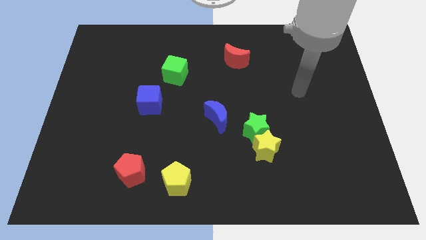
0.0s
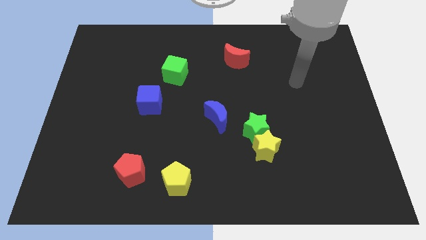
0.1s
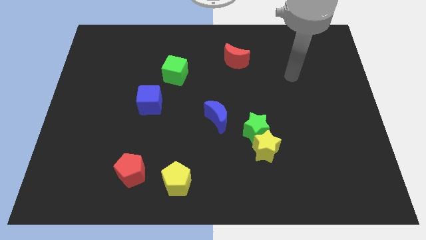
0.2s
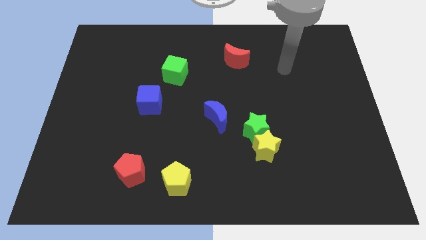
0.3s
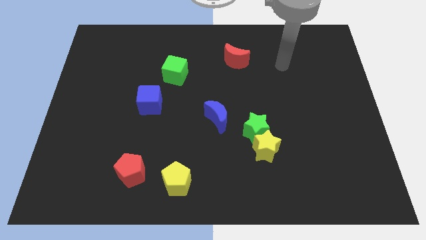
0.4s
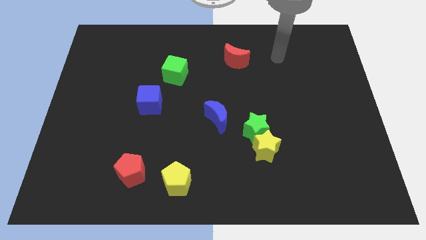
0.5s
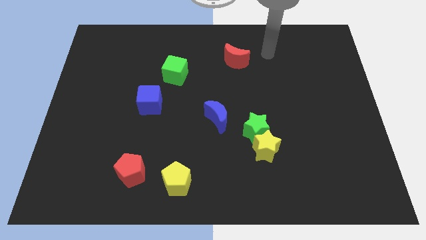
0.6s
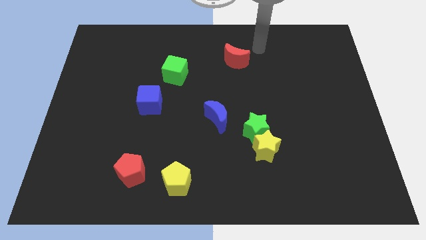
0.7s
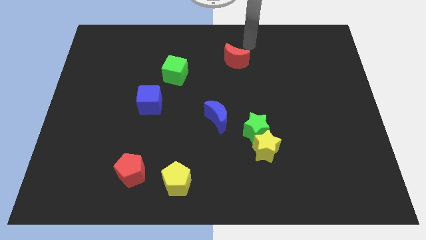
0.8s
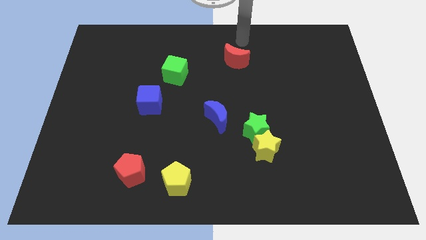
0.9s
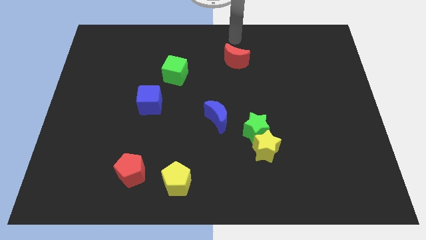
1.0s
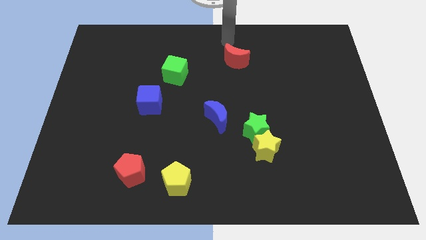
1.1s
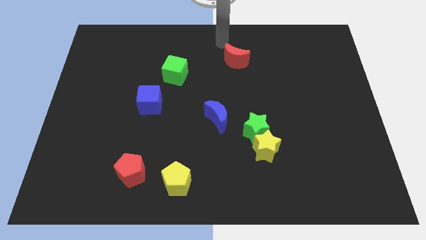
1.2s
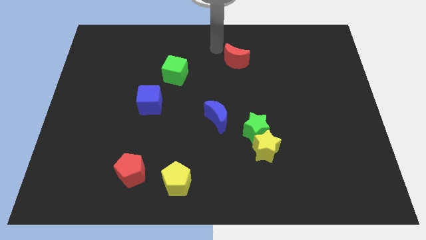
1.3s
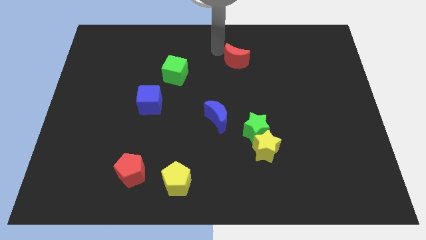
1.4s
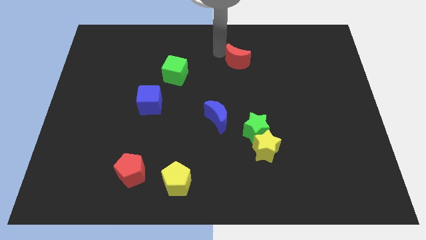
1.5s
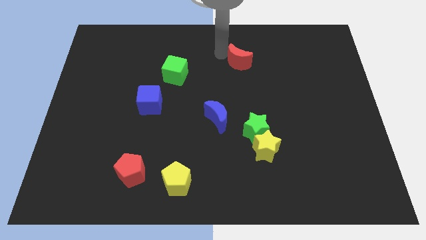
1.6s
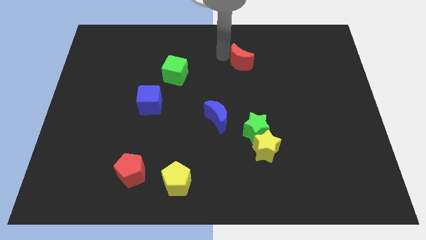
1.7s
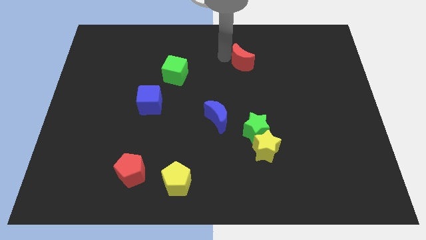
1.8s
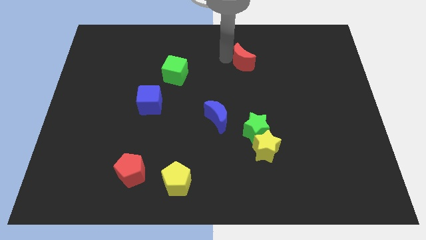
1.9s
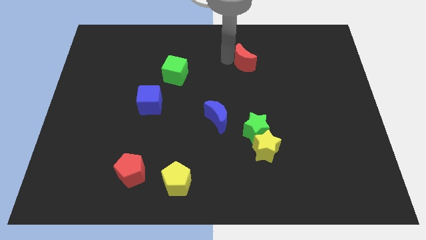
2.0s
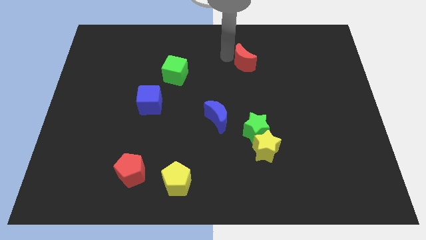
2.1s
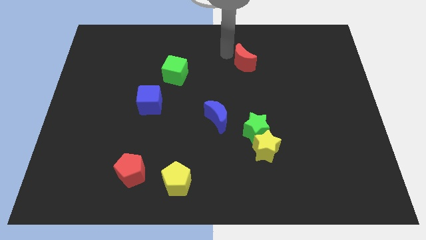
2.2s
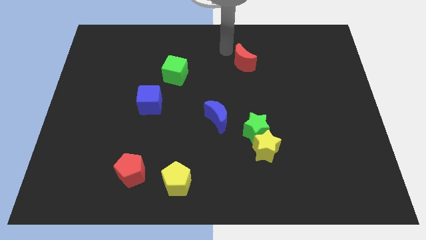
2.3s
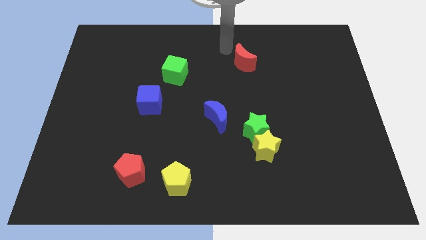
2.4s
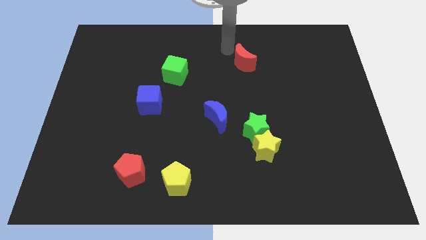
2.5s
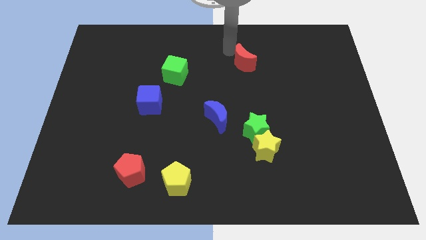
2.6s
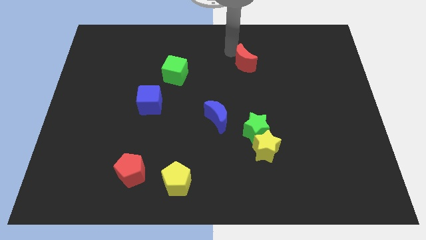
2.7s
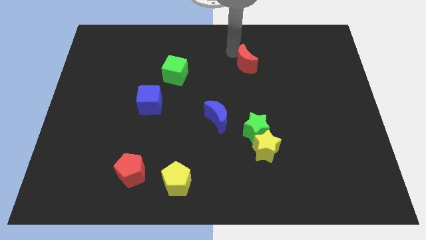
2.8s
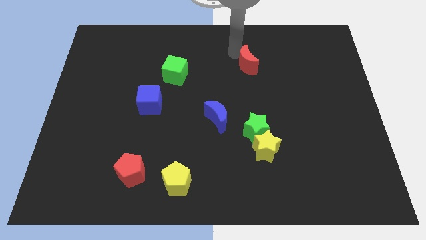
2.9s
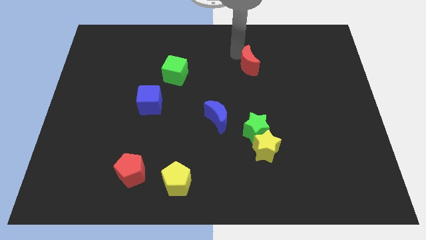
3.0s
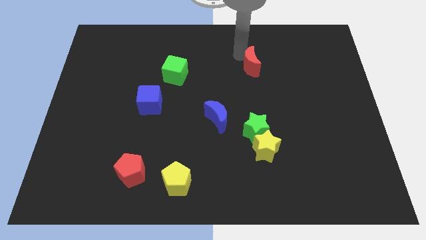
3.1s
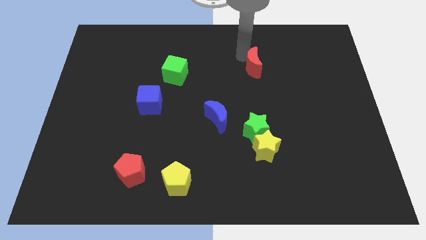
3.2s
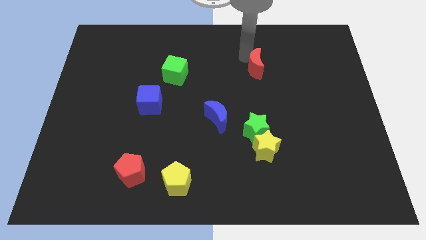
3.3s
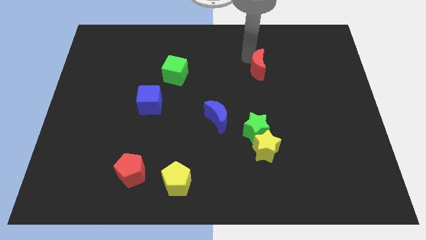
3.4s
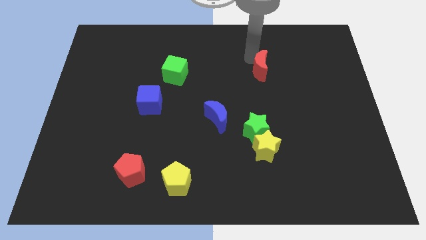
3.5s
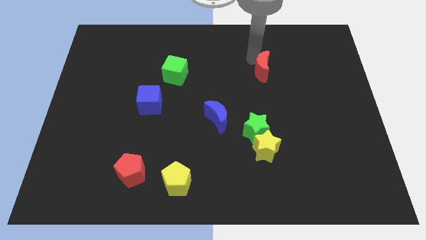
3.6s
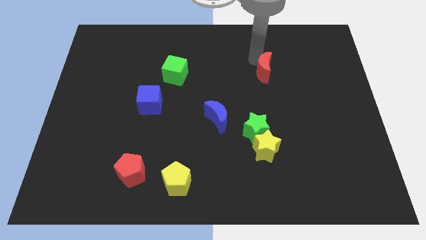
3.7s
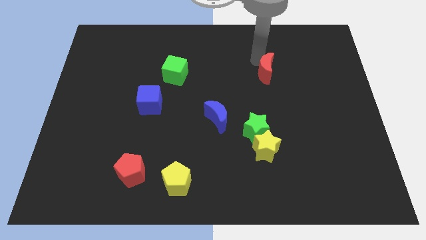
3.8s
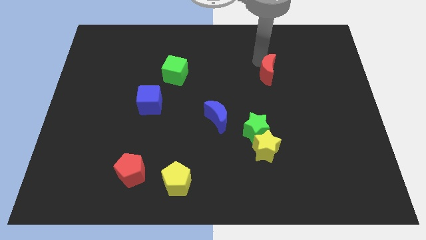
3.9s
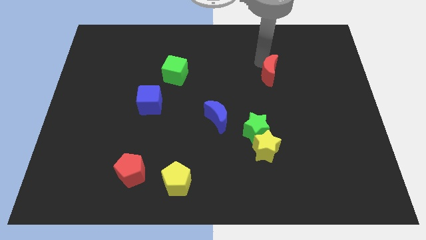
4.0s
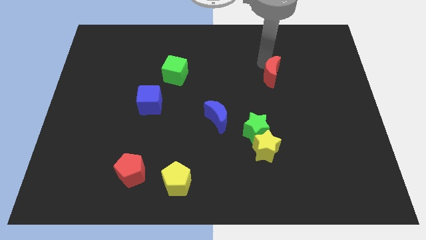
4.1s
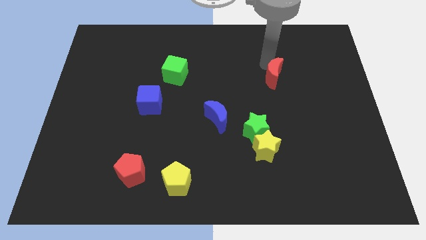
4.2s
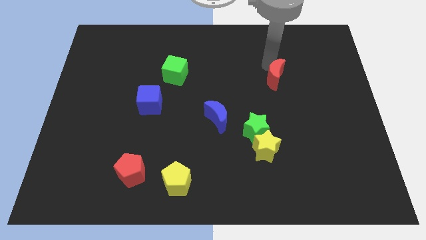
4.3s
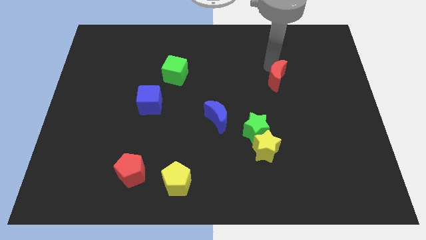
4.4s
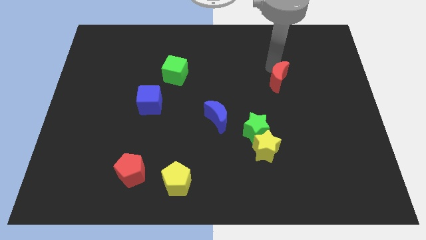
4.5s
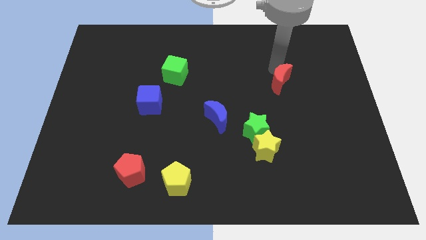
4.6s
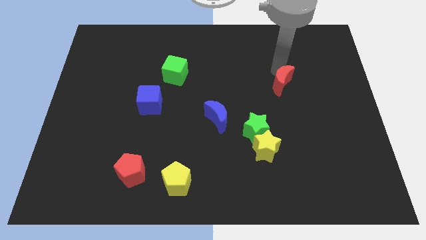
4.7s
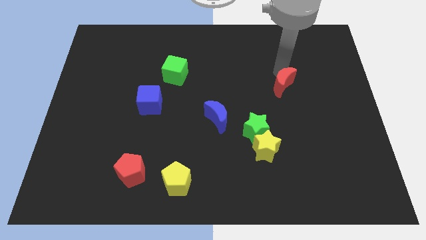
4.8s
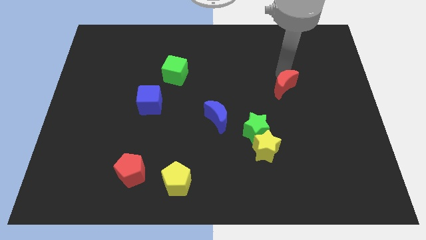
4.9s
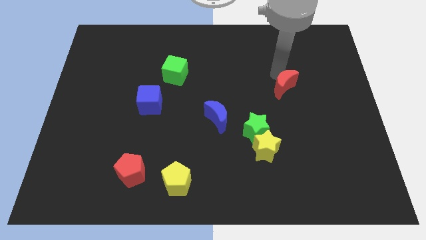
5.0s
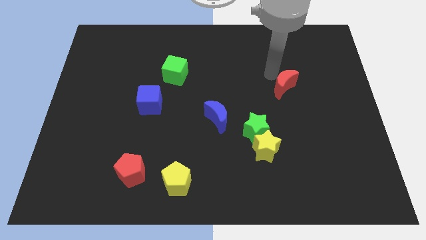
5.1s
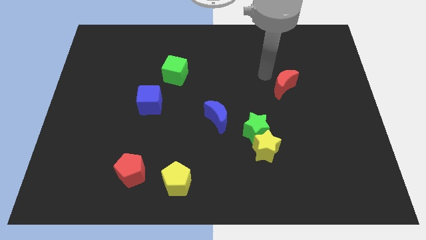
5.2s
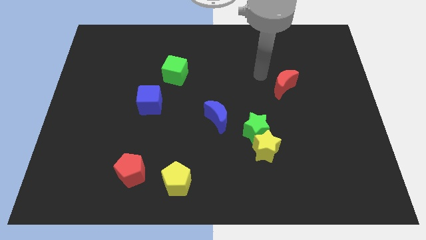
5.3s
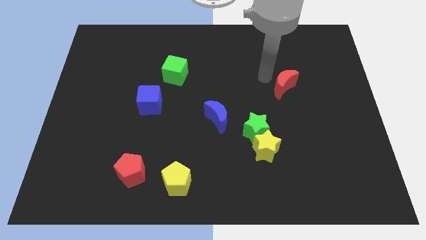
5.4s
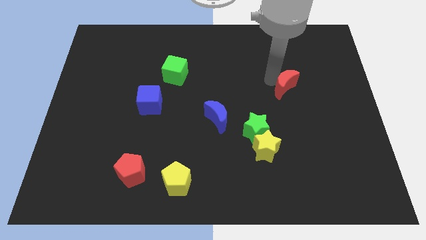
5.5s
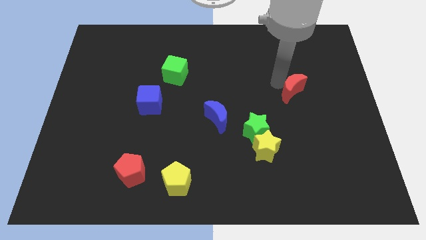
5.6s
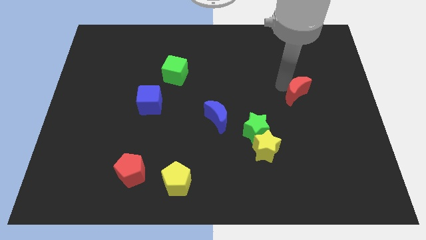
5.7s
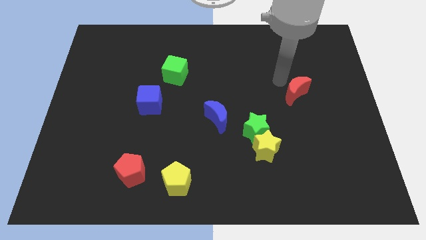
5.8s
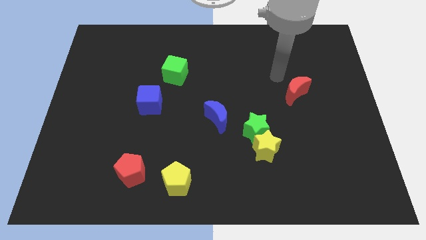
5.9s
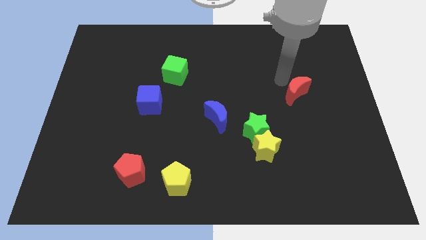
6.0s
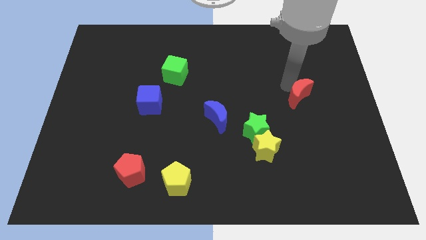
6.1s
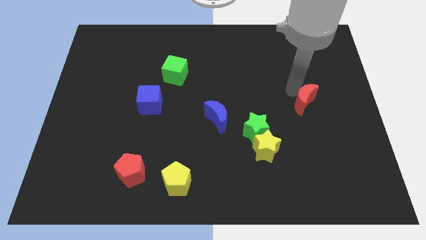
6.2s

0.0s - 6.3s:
push the red moon diagonally downwards and right

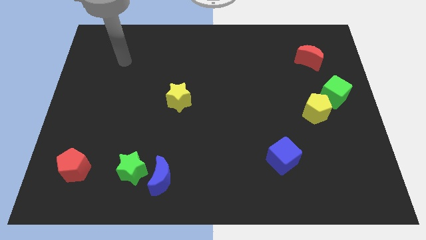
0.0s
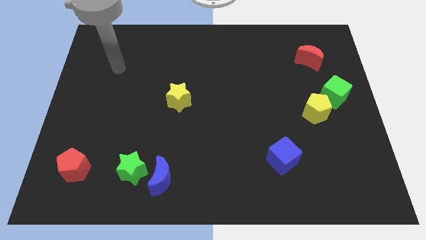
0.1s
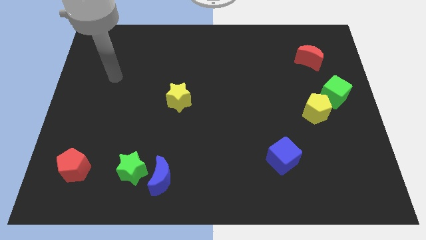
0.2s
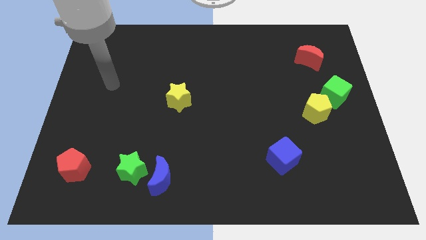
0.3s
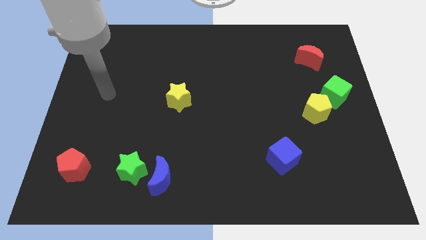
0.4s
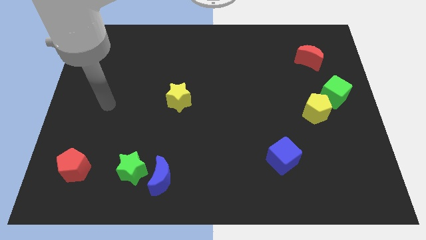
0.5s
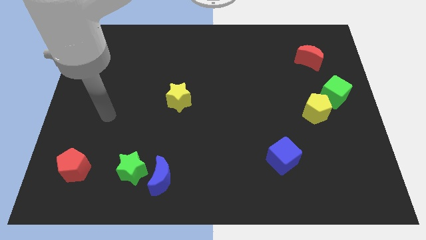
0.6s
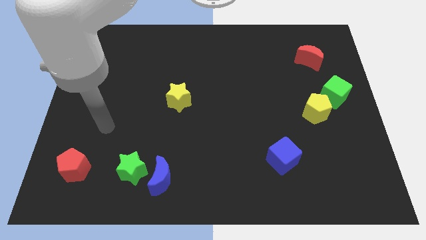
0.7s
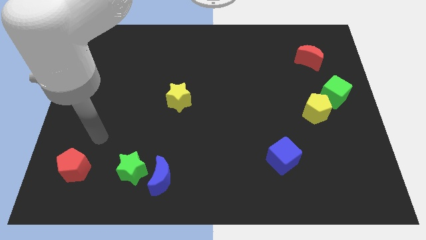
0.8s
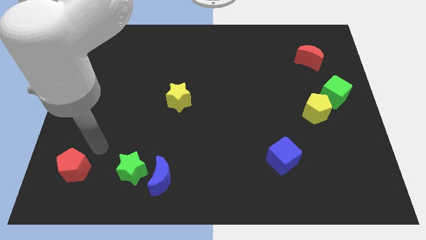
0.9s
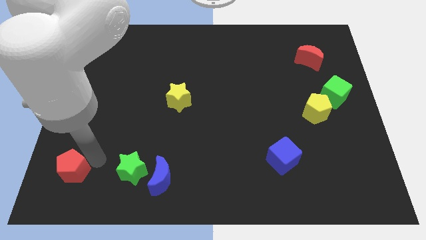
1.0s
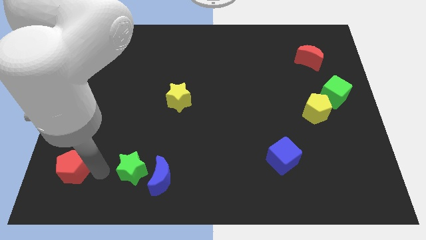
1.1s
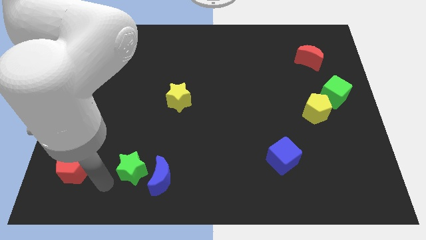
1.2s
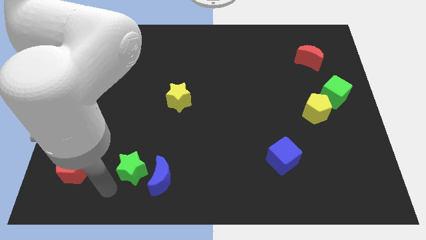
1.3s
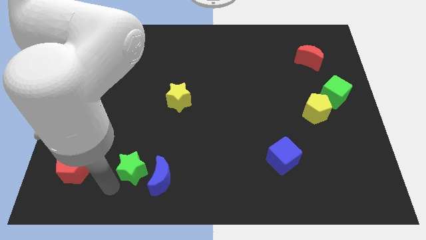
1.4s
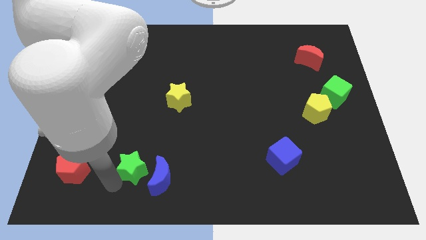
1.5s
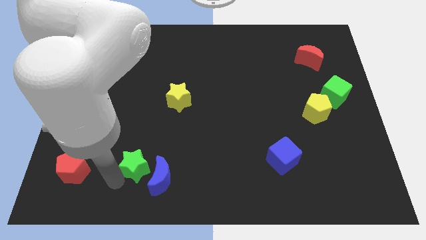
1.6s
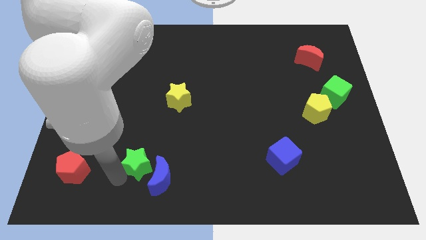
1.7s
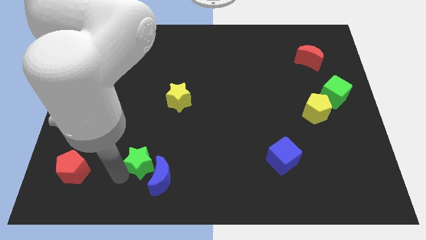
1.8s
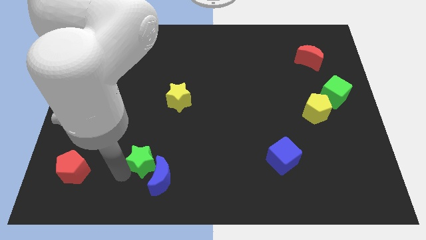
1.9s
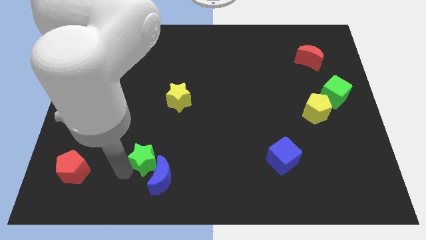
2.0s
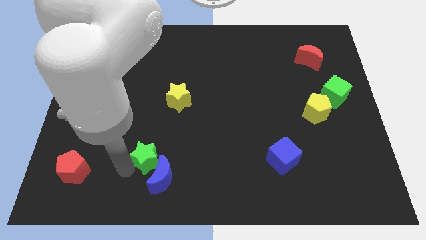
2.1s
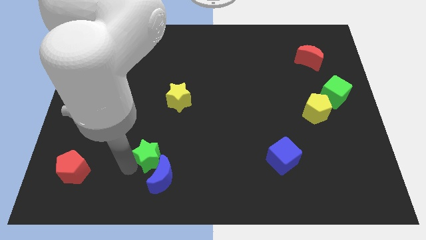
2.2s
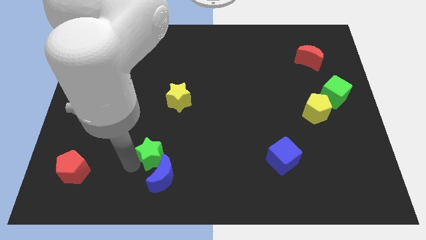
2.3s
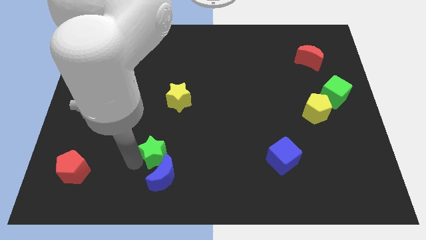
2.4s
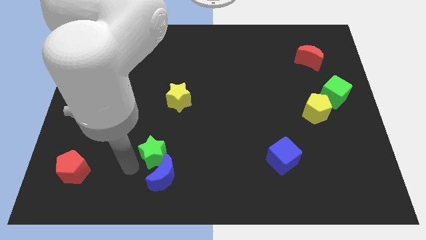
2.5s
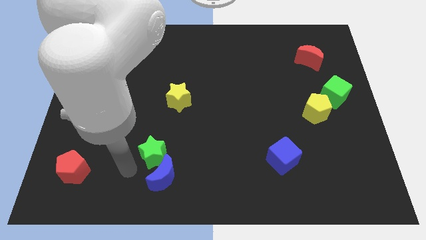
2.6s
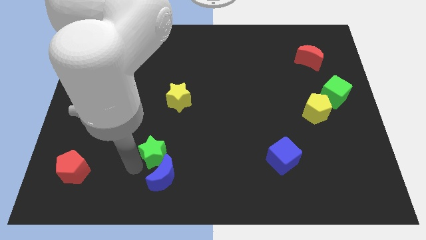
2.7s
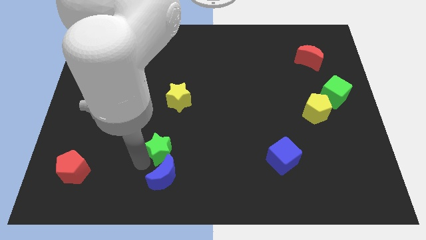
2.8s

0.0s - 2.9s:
move the green star up and then to the right a little bit
